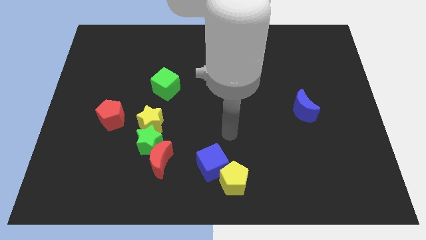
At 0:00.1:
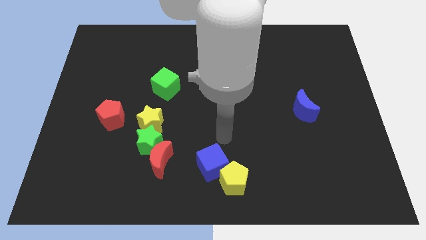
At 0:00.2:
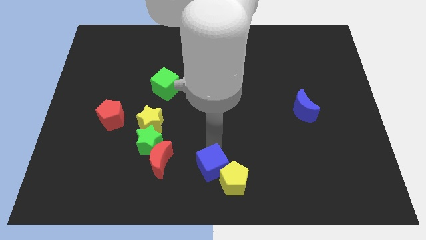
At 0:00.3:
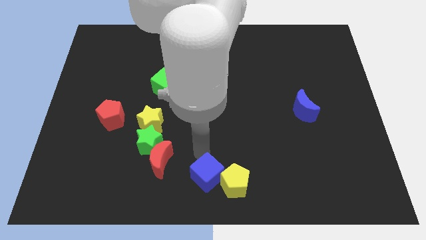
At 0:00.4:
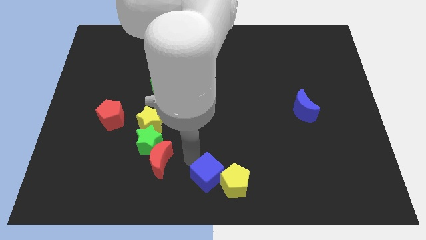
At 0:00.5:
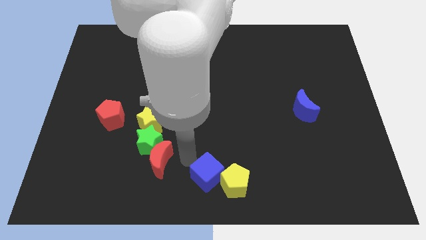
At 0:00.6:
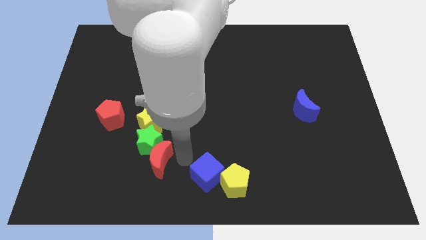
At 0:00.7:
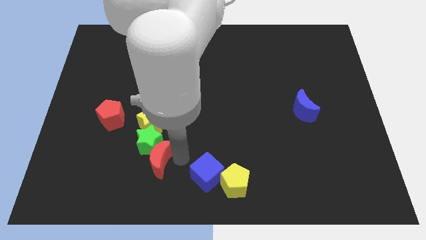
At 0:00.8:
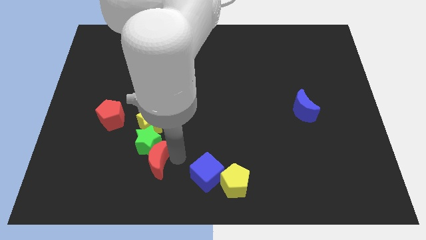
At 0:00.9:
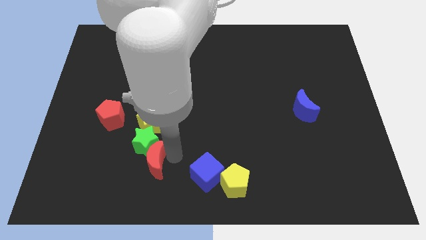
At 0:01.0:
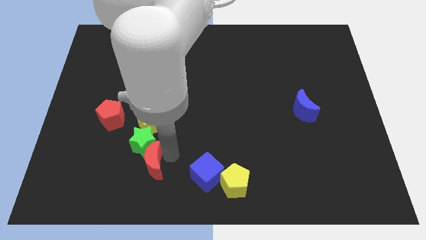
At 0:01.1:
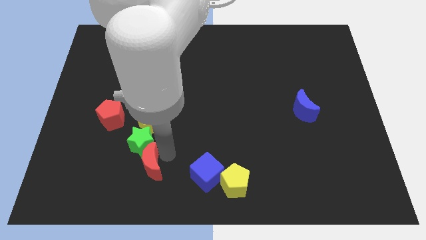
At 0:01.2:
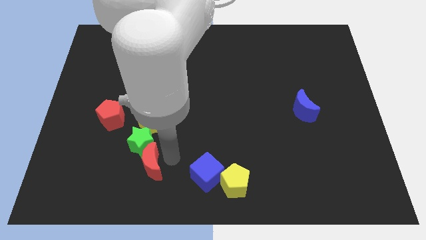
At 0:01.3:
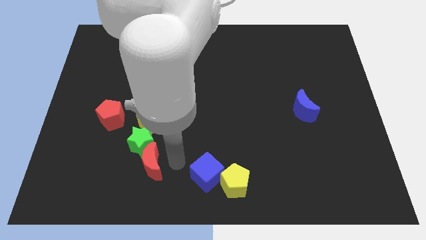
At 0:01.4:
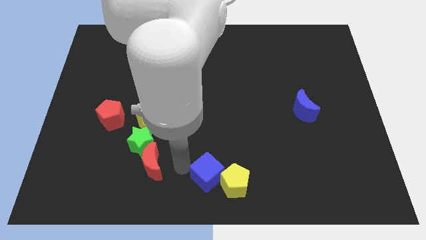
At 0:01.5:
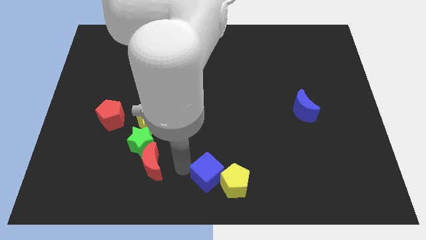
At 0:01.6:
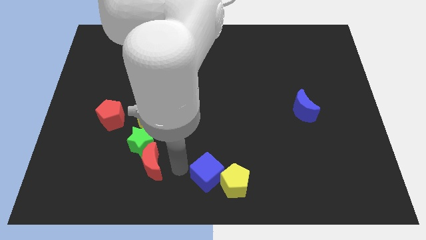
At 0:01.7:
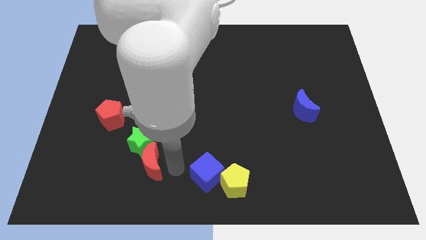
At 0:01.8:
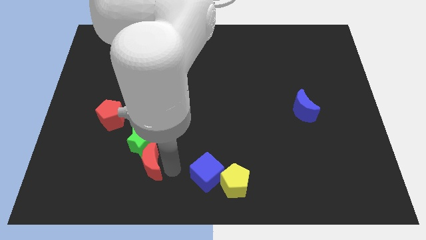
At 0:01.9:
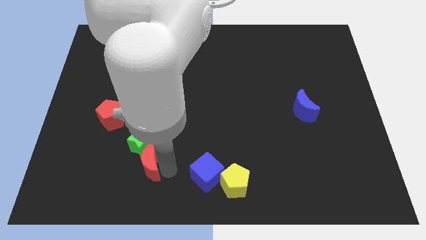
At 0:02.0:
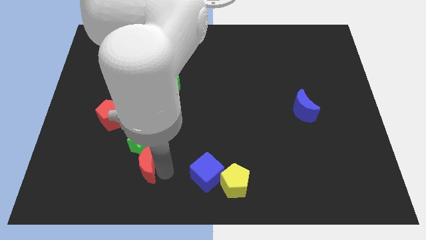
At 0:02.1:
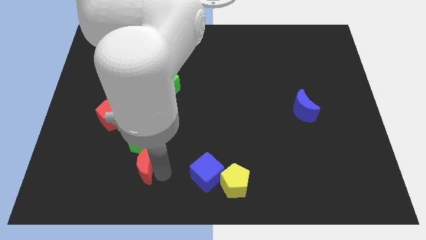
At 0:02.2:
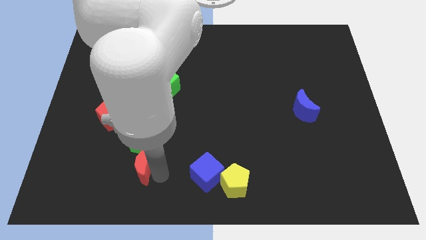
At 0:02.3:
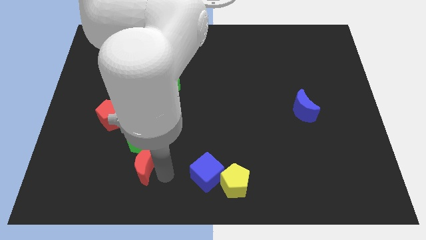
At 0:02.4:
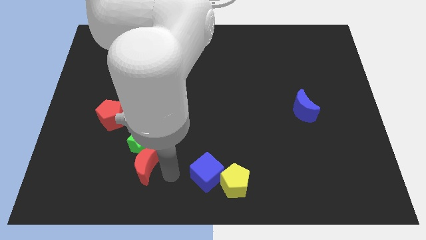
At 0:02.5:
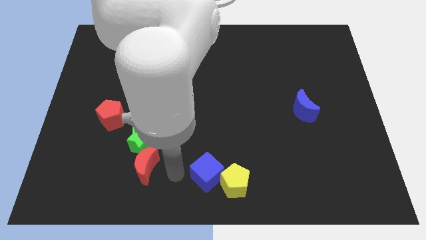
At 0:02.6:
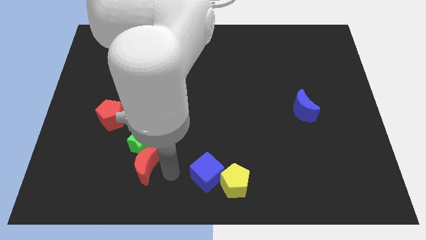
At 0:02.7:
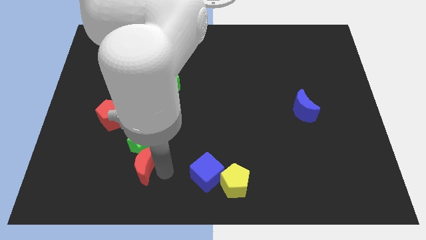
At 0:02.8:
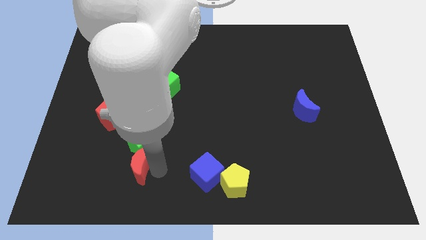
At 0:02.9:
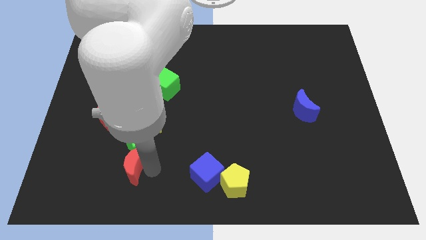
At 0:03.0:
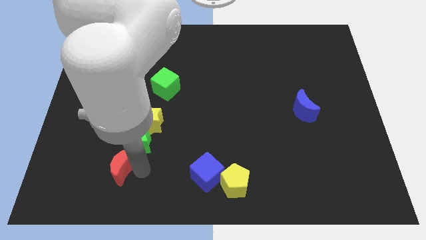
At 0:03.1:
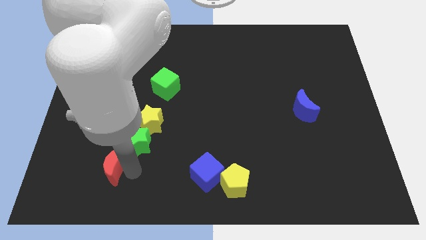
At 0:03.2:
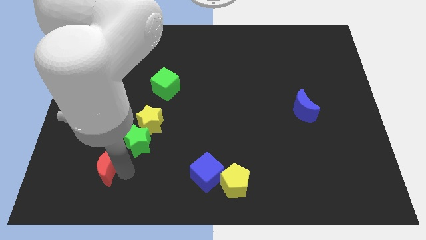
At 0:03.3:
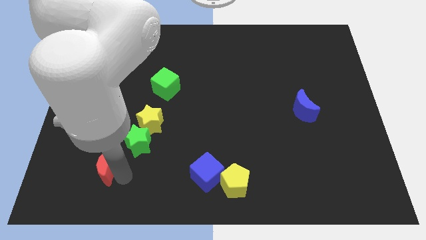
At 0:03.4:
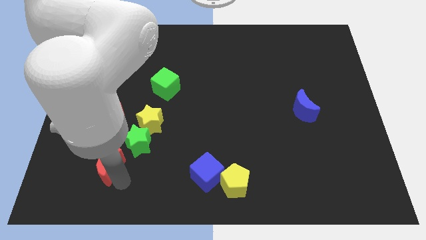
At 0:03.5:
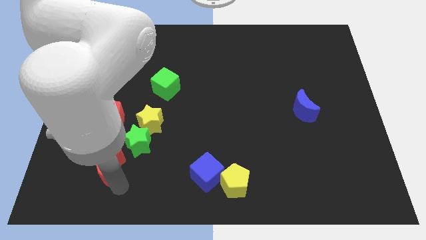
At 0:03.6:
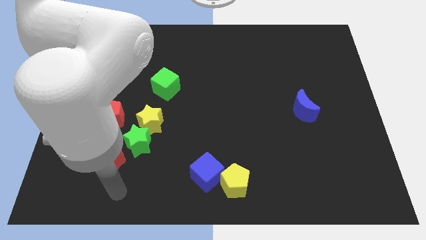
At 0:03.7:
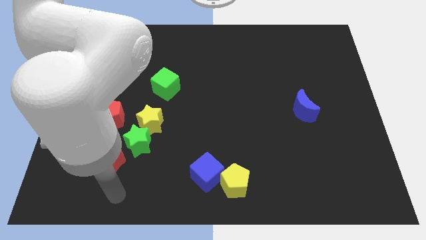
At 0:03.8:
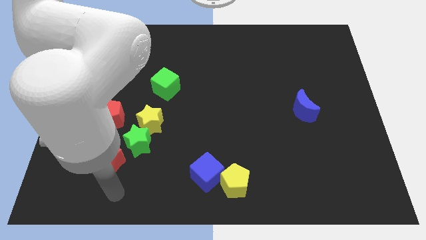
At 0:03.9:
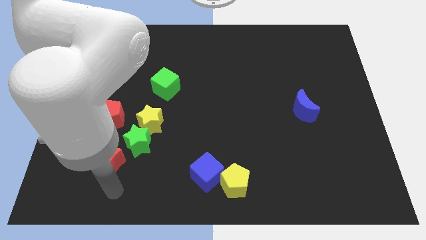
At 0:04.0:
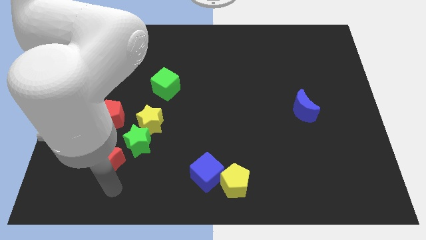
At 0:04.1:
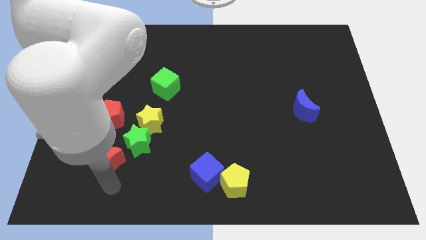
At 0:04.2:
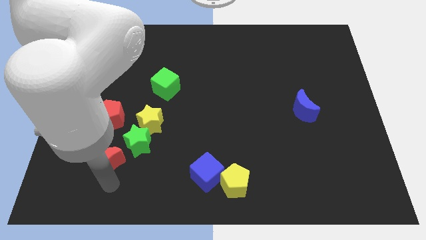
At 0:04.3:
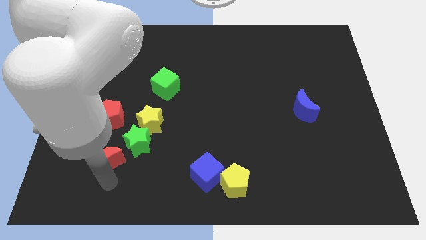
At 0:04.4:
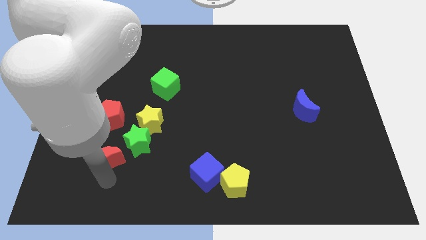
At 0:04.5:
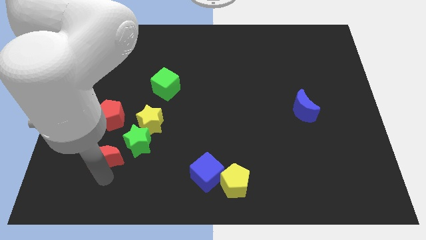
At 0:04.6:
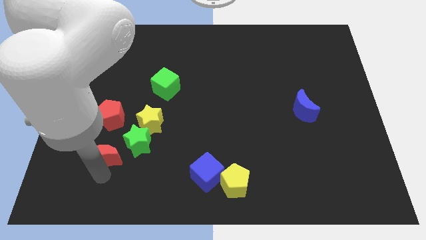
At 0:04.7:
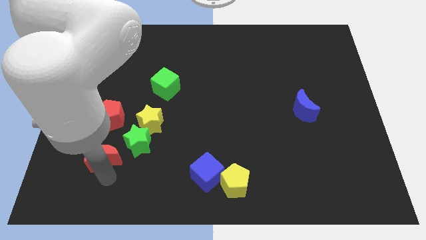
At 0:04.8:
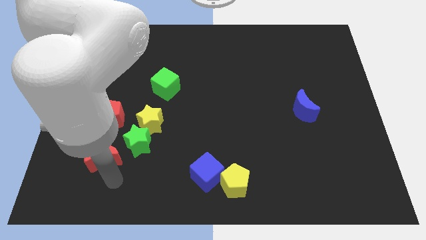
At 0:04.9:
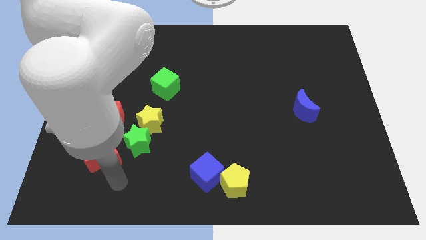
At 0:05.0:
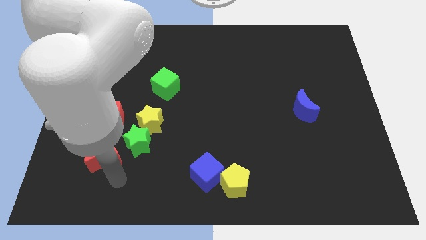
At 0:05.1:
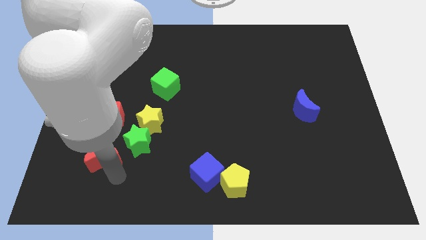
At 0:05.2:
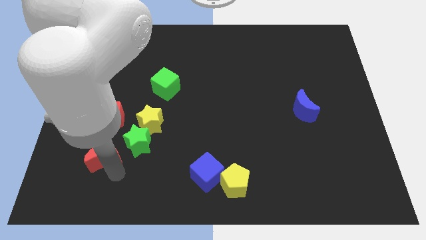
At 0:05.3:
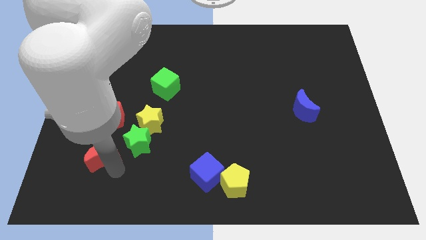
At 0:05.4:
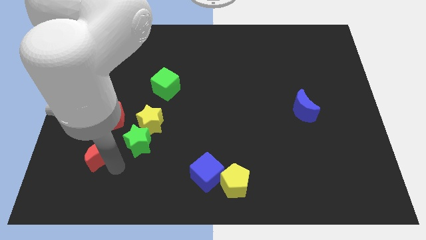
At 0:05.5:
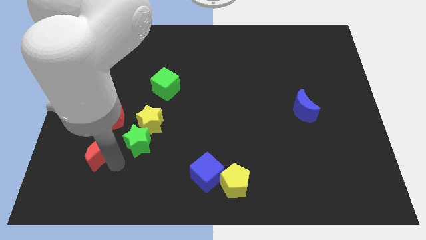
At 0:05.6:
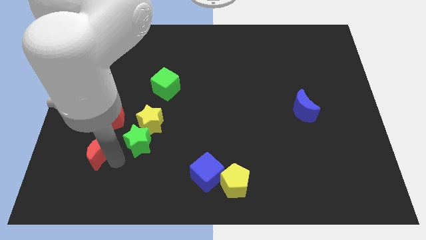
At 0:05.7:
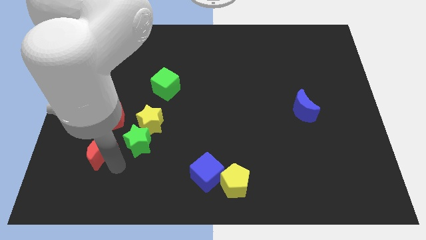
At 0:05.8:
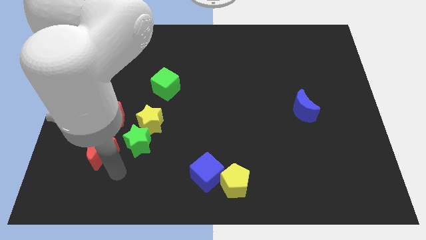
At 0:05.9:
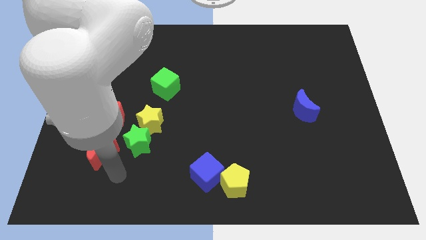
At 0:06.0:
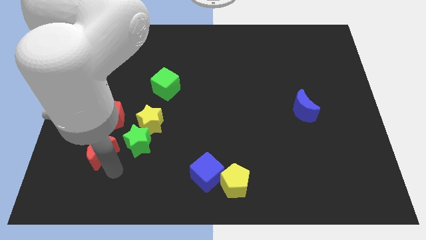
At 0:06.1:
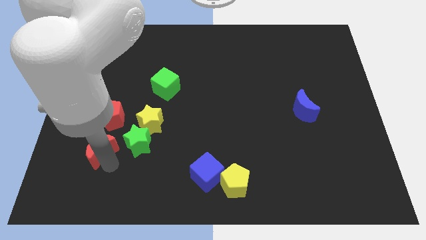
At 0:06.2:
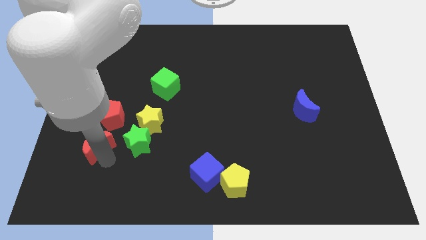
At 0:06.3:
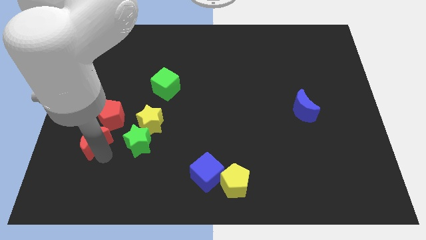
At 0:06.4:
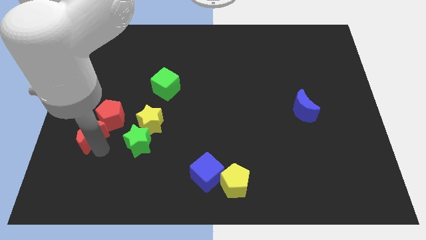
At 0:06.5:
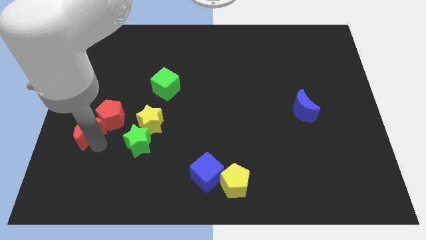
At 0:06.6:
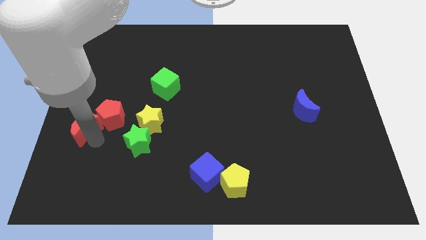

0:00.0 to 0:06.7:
move the red moon to the left side

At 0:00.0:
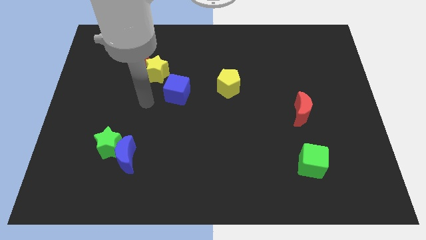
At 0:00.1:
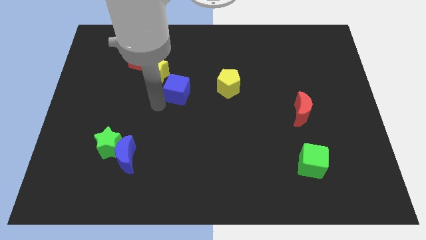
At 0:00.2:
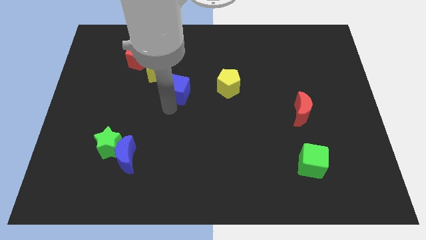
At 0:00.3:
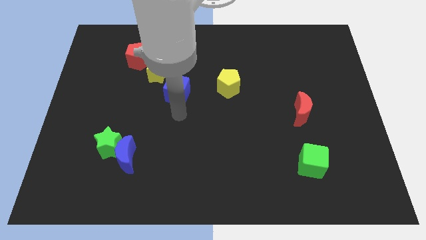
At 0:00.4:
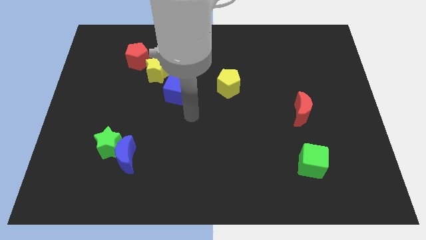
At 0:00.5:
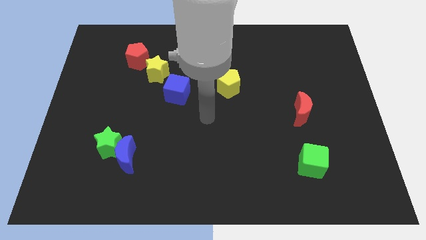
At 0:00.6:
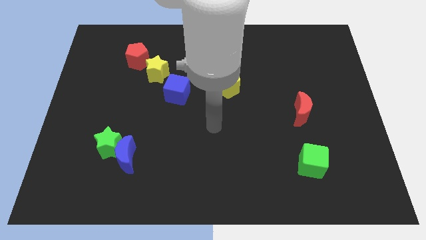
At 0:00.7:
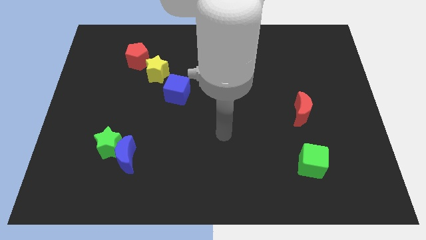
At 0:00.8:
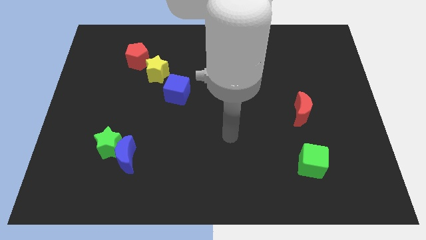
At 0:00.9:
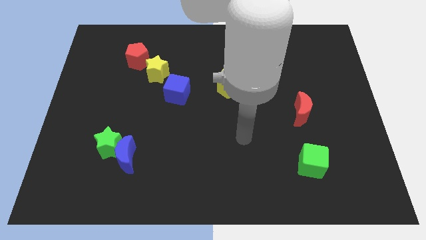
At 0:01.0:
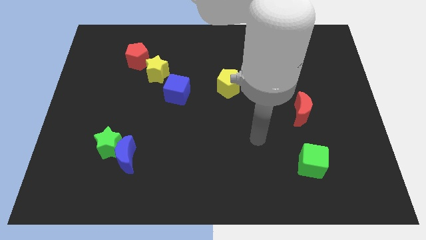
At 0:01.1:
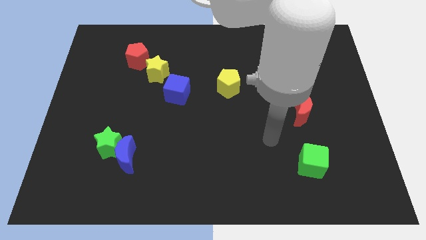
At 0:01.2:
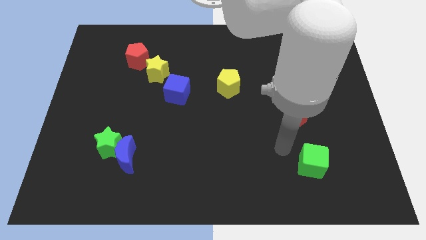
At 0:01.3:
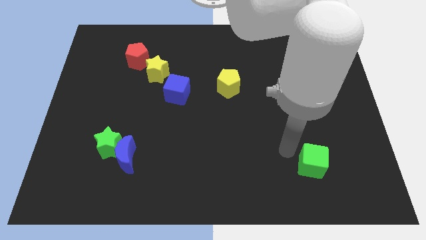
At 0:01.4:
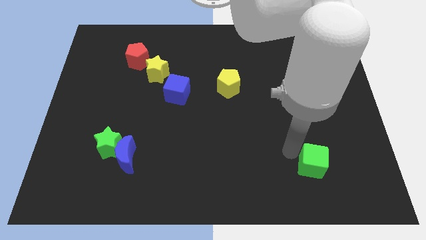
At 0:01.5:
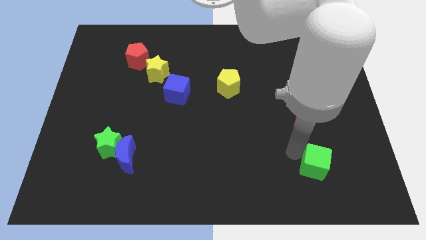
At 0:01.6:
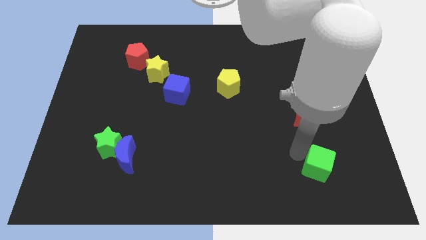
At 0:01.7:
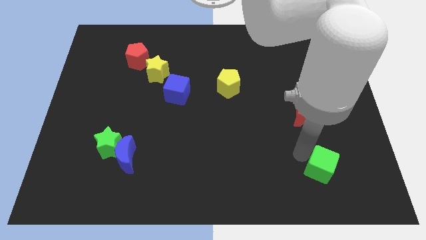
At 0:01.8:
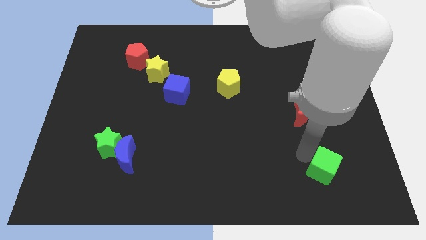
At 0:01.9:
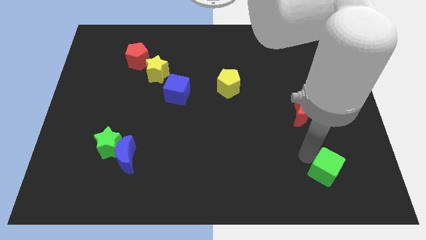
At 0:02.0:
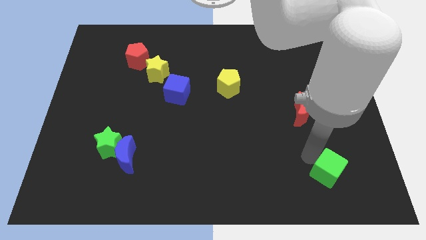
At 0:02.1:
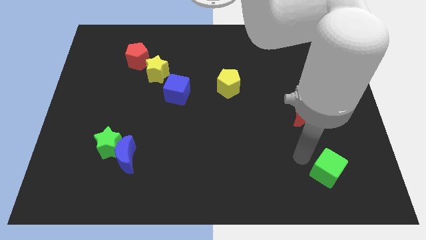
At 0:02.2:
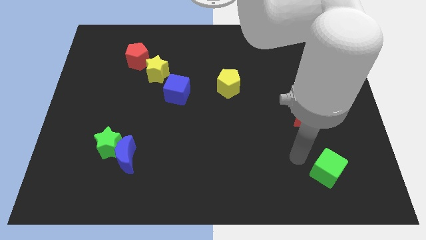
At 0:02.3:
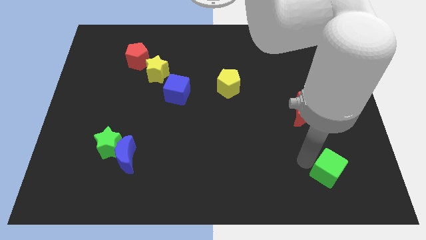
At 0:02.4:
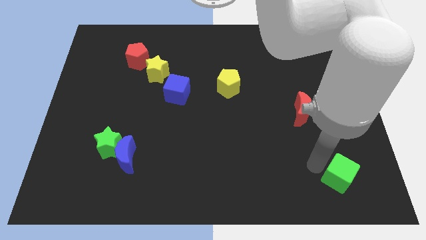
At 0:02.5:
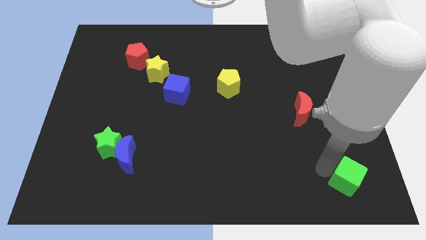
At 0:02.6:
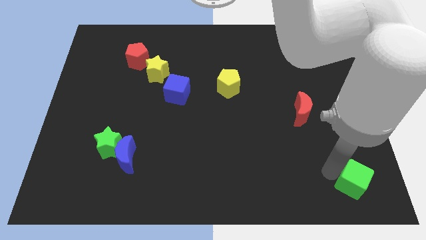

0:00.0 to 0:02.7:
slide the green cube to the lower right corner
